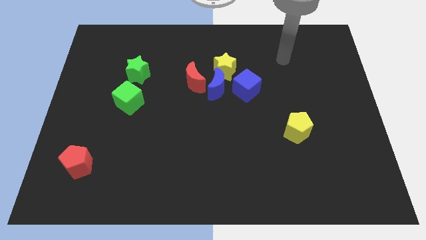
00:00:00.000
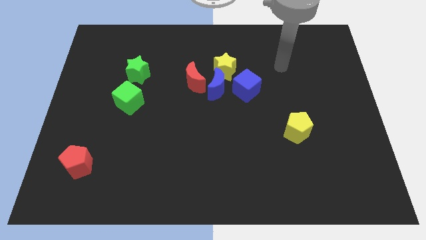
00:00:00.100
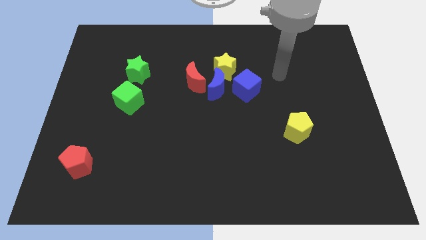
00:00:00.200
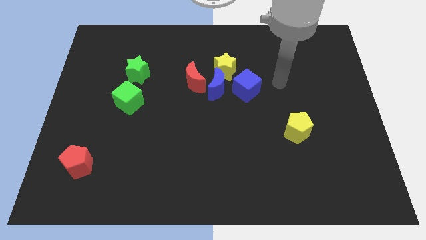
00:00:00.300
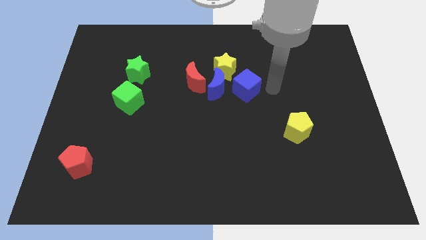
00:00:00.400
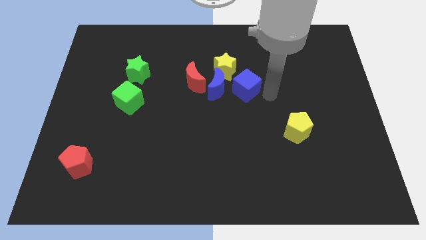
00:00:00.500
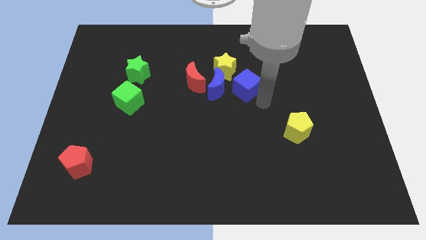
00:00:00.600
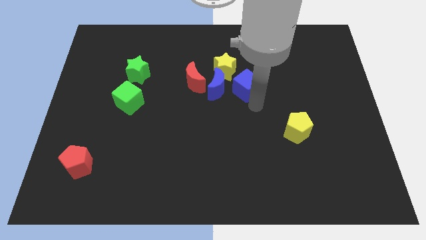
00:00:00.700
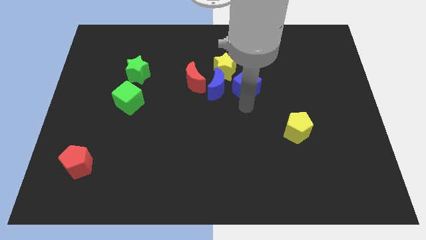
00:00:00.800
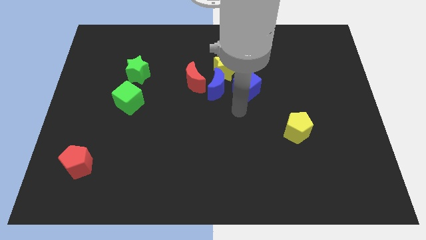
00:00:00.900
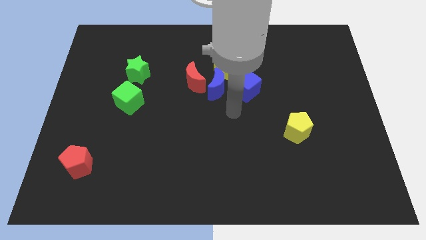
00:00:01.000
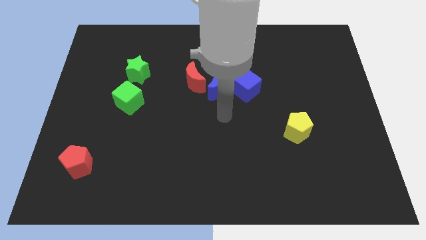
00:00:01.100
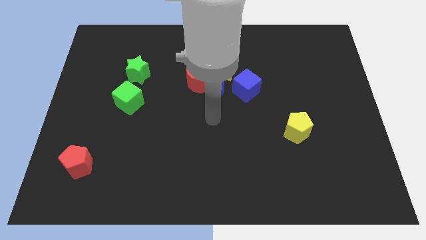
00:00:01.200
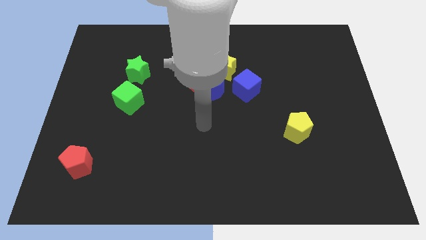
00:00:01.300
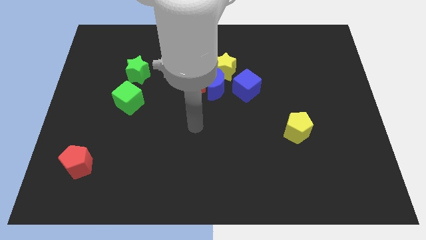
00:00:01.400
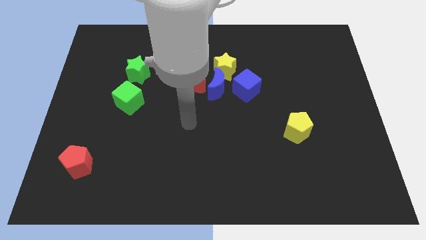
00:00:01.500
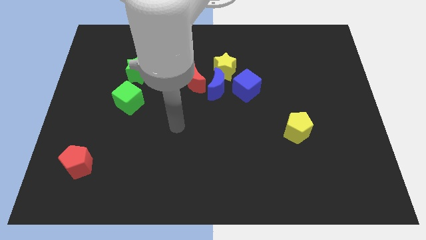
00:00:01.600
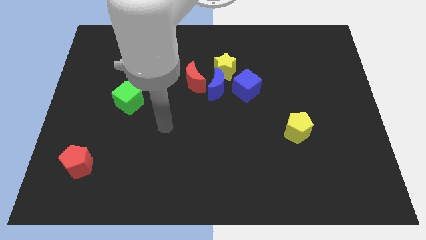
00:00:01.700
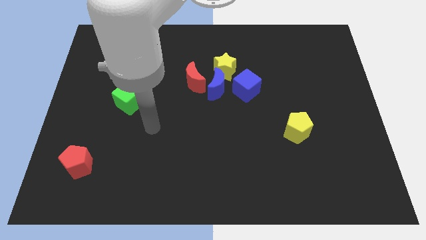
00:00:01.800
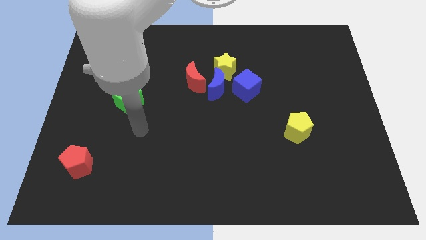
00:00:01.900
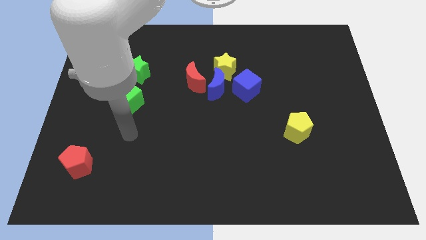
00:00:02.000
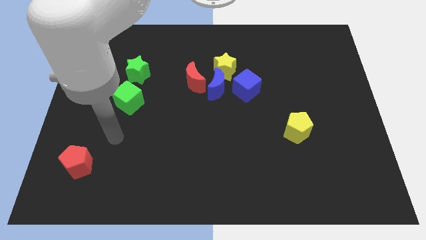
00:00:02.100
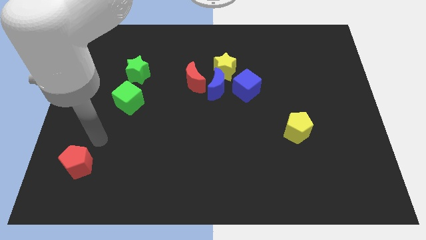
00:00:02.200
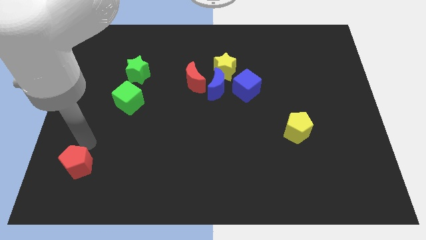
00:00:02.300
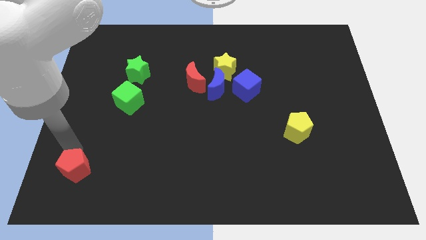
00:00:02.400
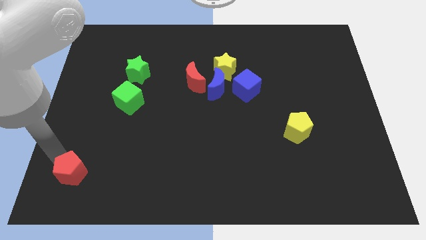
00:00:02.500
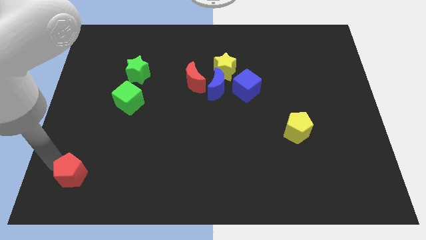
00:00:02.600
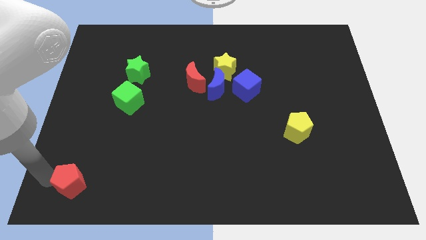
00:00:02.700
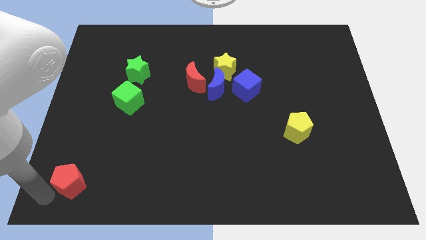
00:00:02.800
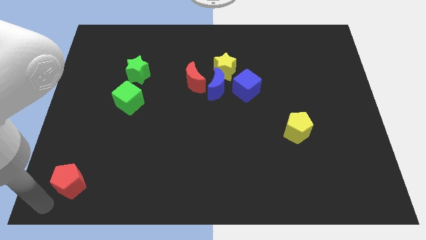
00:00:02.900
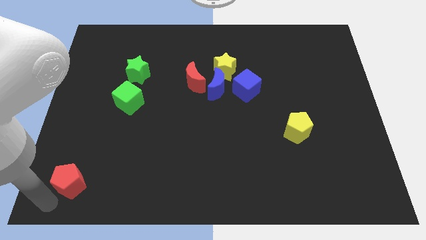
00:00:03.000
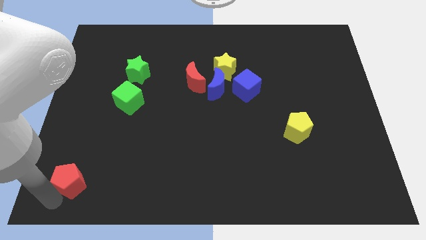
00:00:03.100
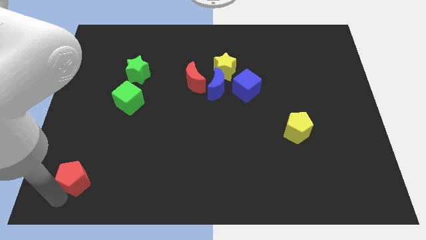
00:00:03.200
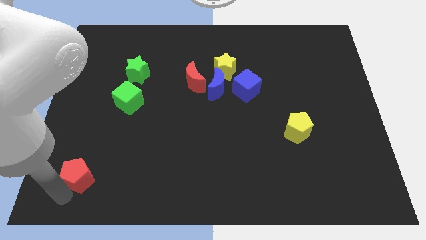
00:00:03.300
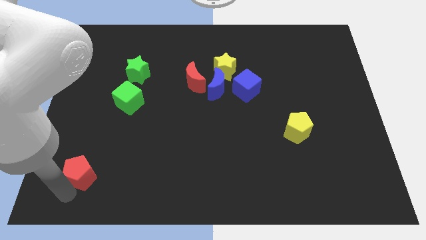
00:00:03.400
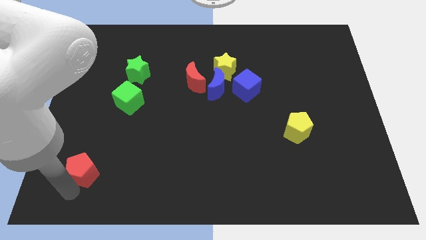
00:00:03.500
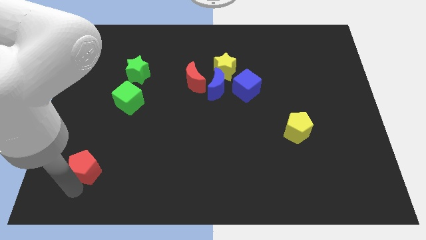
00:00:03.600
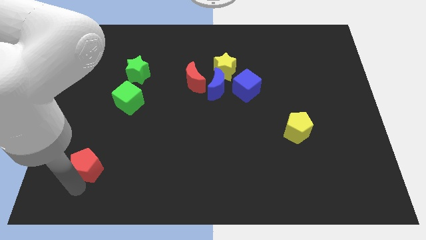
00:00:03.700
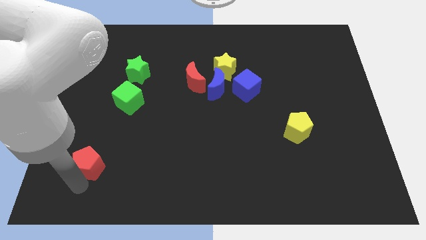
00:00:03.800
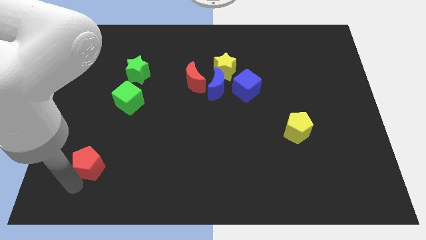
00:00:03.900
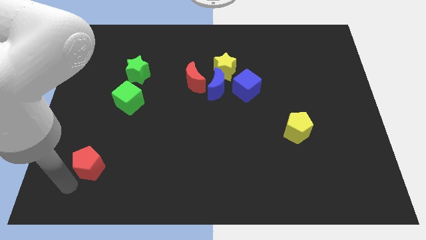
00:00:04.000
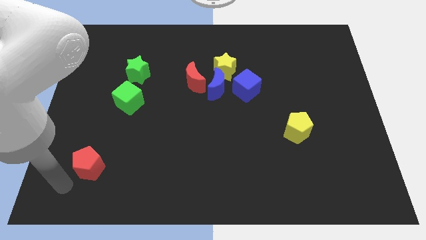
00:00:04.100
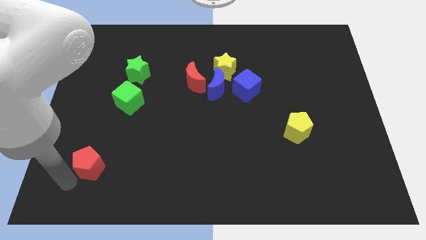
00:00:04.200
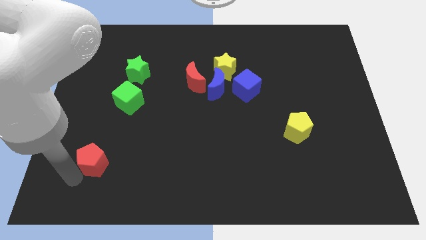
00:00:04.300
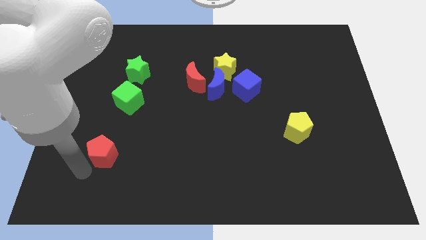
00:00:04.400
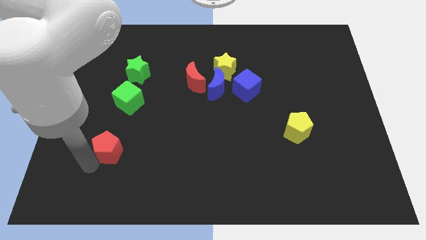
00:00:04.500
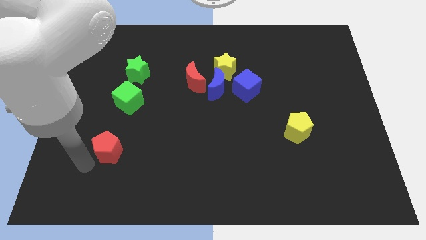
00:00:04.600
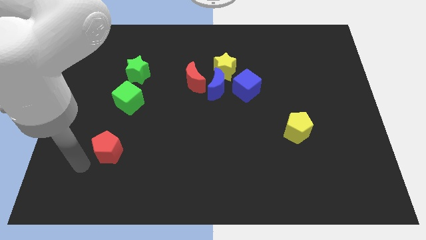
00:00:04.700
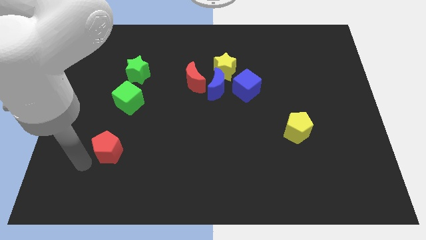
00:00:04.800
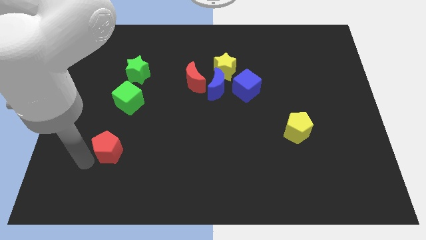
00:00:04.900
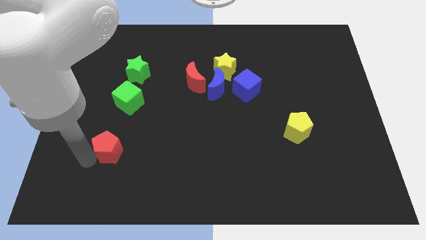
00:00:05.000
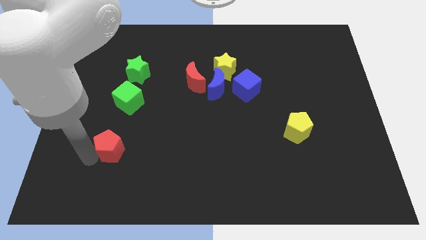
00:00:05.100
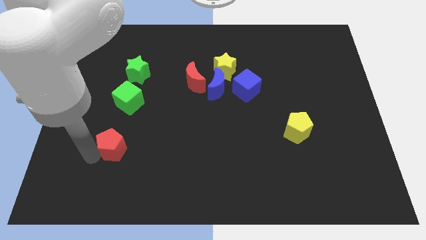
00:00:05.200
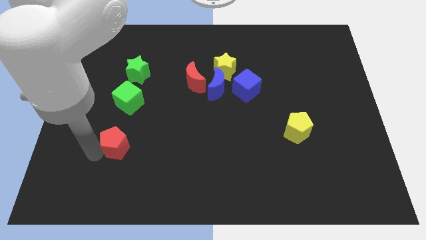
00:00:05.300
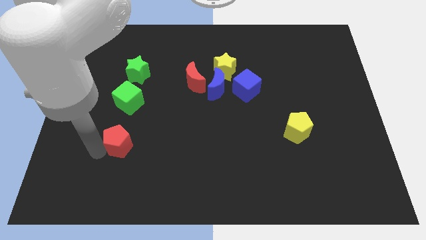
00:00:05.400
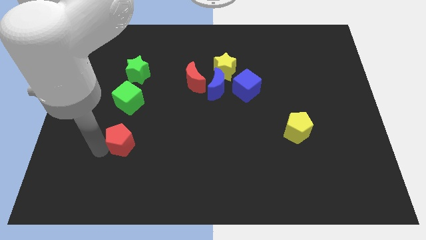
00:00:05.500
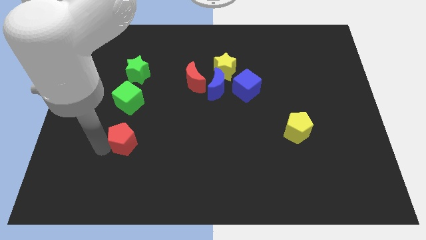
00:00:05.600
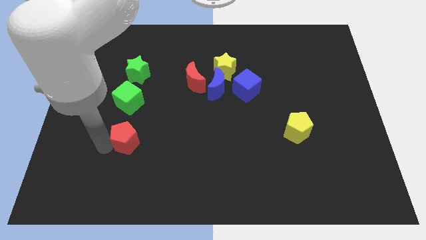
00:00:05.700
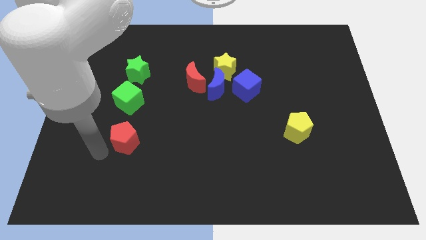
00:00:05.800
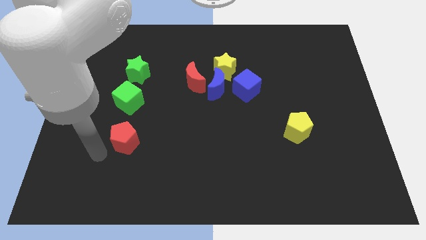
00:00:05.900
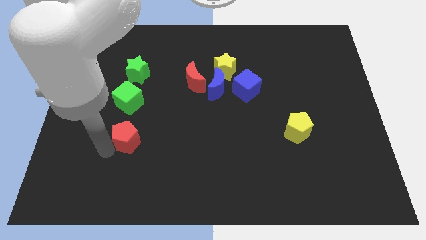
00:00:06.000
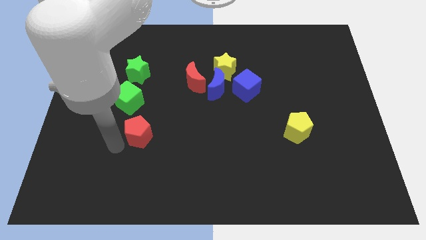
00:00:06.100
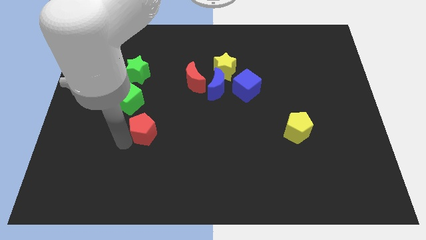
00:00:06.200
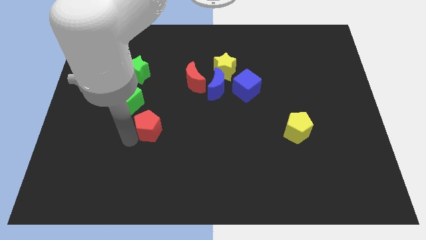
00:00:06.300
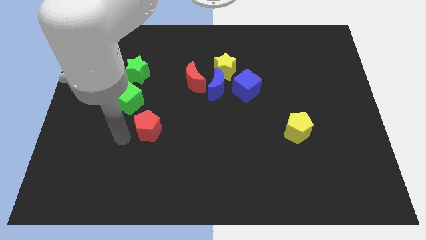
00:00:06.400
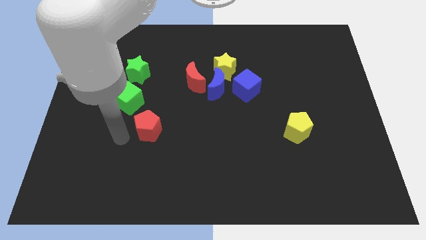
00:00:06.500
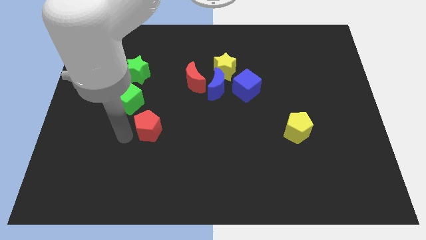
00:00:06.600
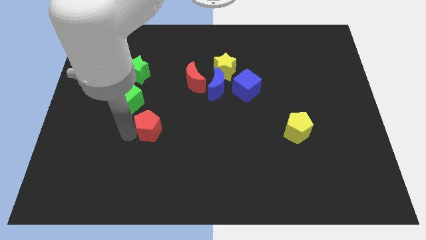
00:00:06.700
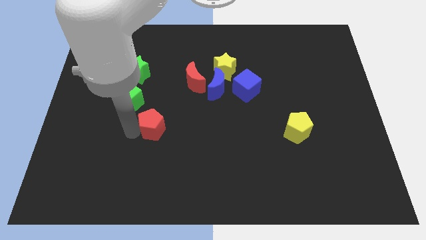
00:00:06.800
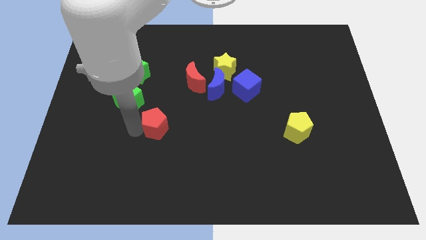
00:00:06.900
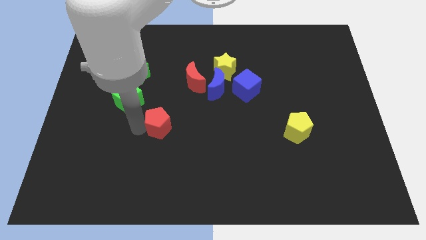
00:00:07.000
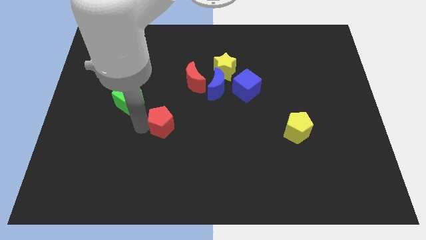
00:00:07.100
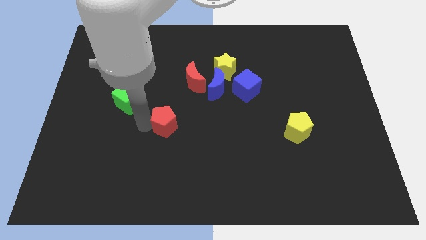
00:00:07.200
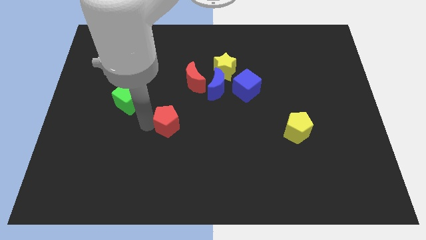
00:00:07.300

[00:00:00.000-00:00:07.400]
move the red pentagon to the center
